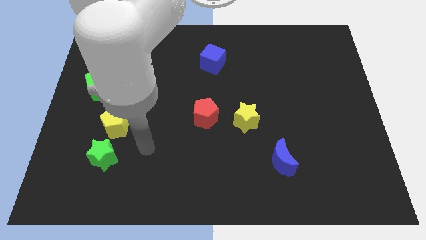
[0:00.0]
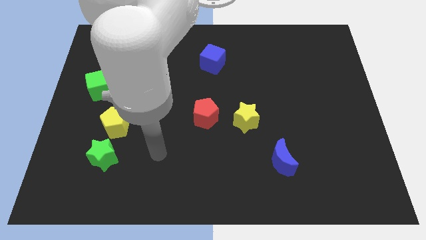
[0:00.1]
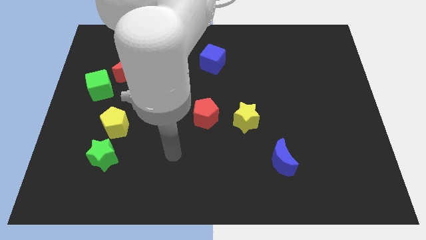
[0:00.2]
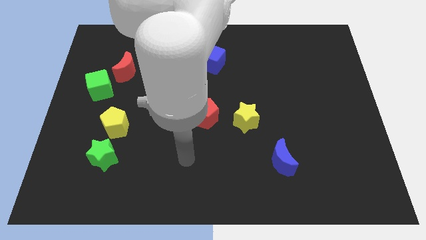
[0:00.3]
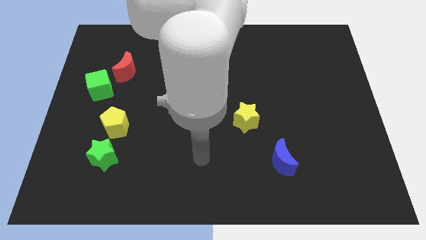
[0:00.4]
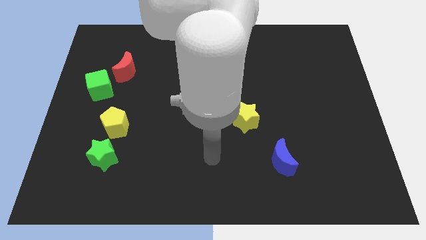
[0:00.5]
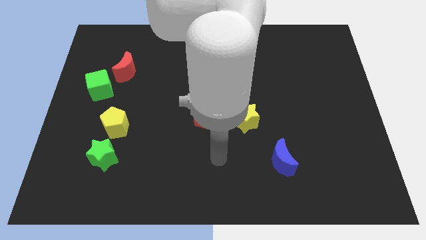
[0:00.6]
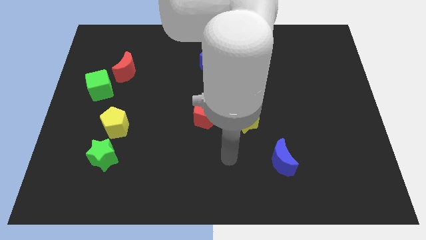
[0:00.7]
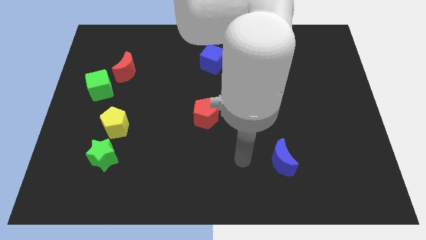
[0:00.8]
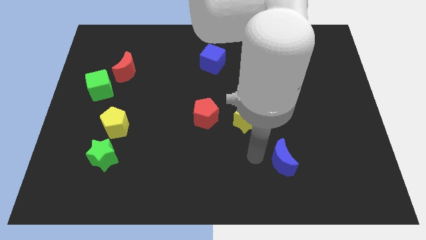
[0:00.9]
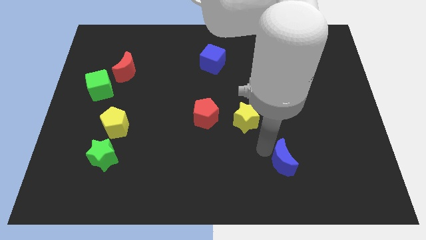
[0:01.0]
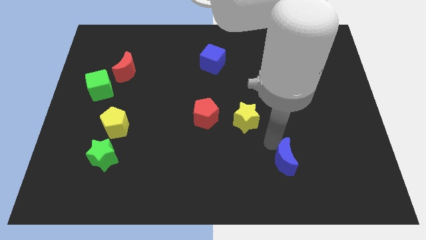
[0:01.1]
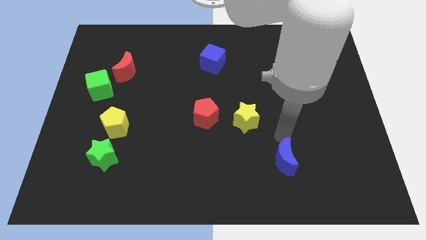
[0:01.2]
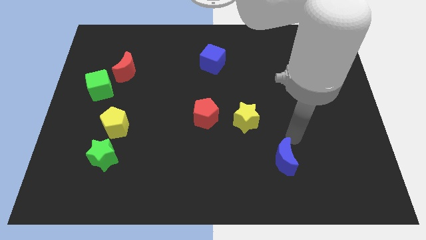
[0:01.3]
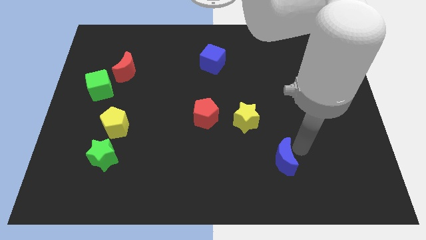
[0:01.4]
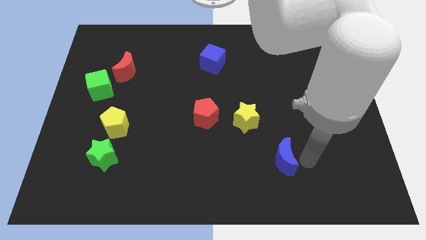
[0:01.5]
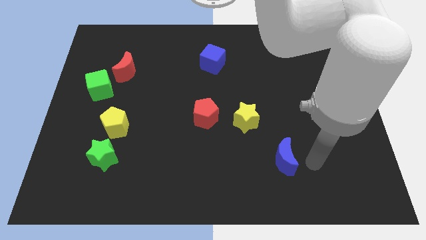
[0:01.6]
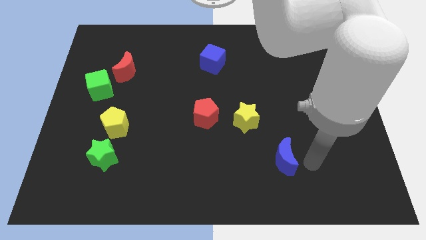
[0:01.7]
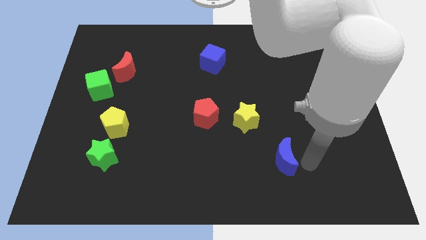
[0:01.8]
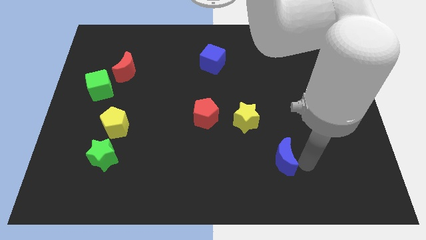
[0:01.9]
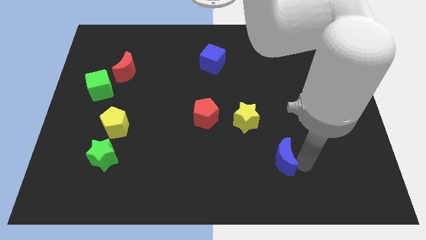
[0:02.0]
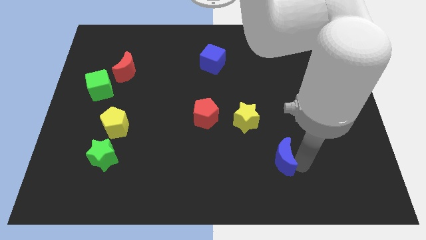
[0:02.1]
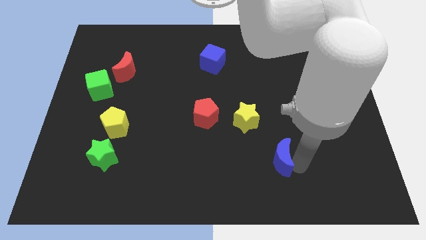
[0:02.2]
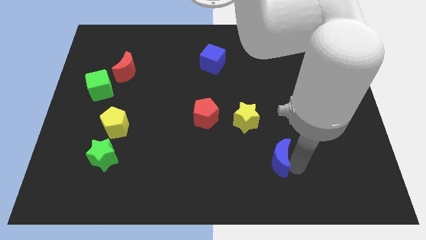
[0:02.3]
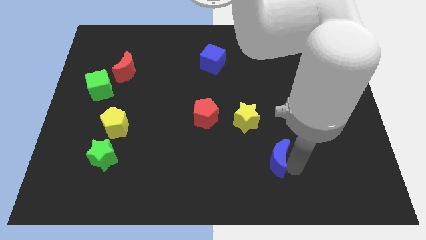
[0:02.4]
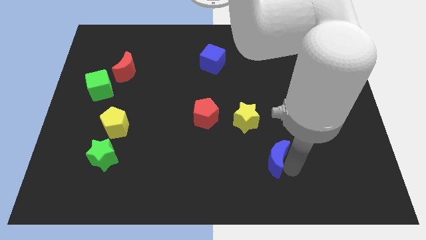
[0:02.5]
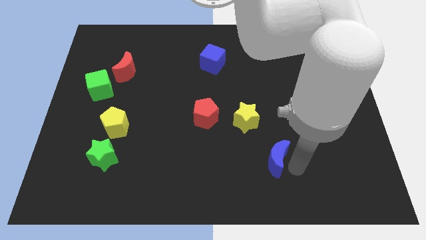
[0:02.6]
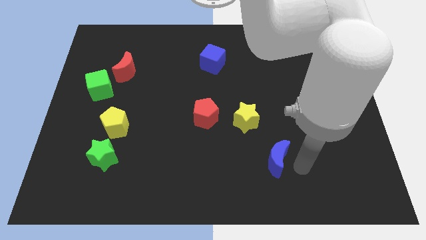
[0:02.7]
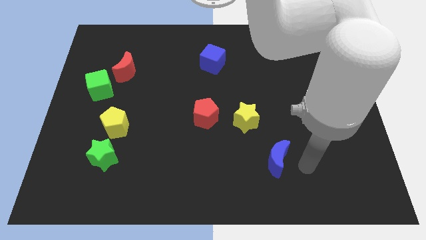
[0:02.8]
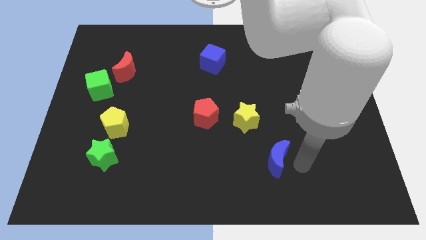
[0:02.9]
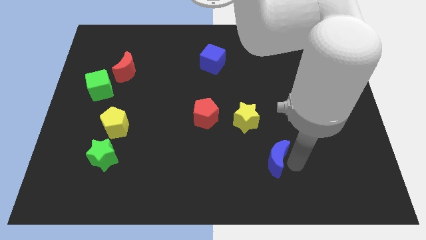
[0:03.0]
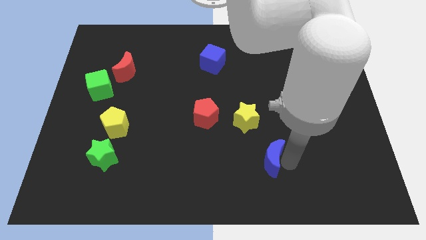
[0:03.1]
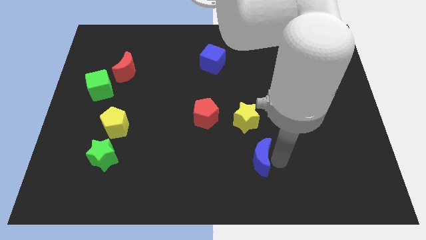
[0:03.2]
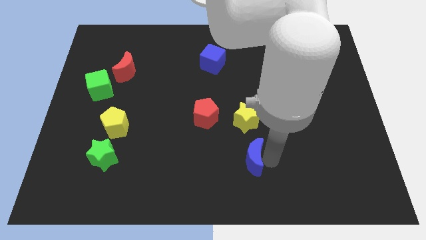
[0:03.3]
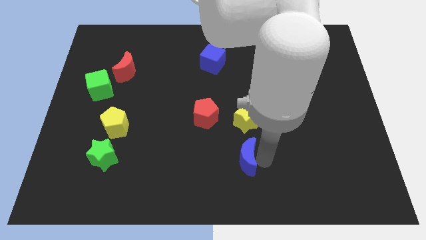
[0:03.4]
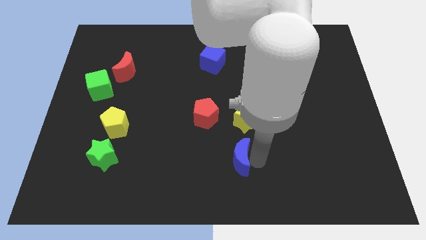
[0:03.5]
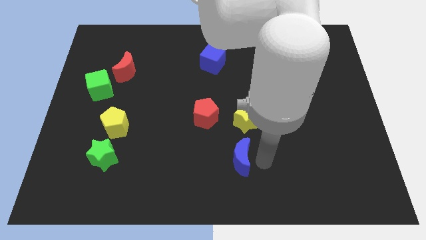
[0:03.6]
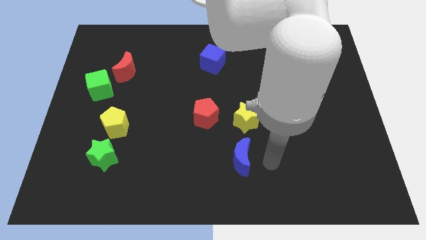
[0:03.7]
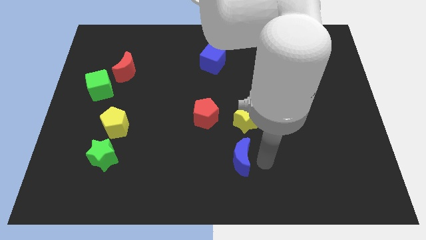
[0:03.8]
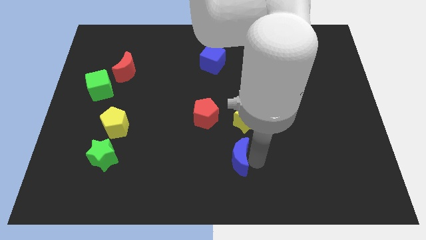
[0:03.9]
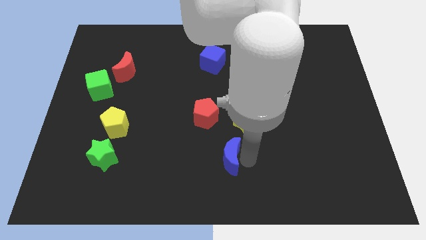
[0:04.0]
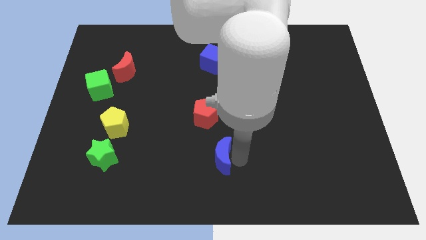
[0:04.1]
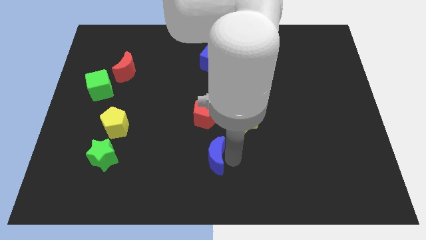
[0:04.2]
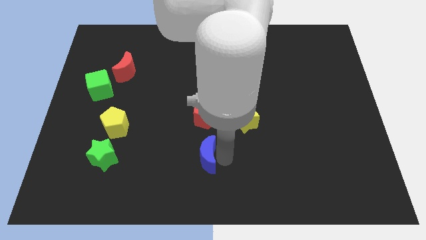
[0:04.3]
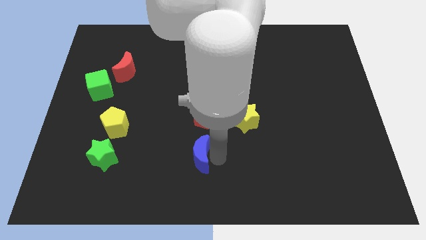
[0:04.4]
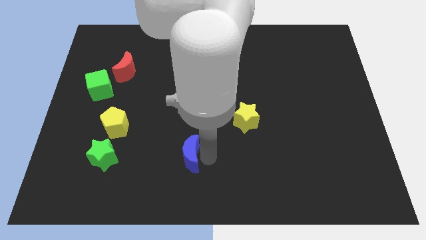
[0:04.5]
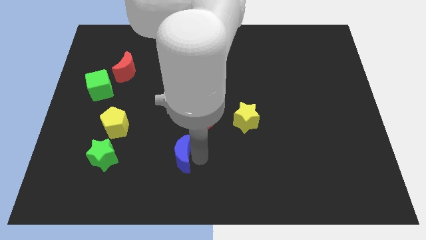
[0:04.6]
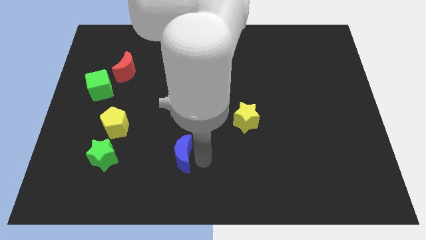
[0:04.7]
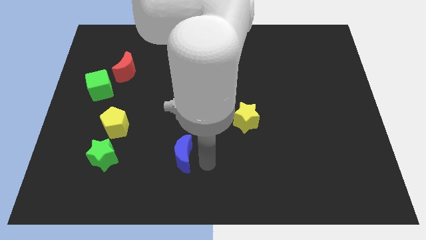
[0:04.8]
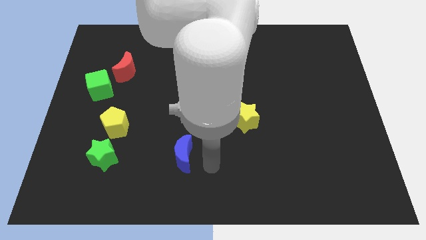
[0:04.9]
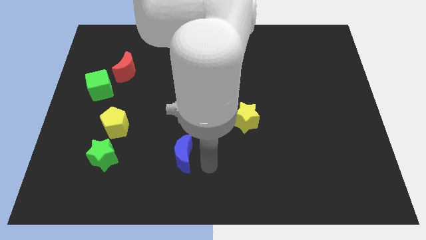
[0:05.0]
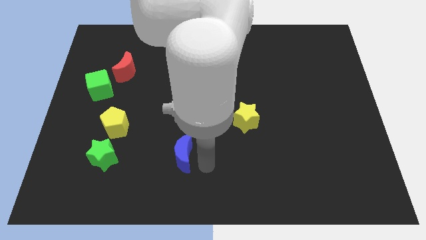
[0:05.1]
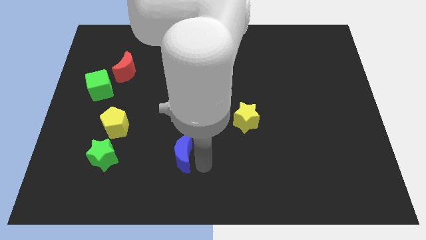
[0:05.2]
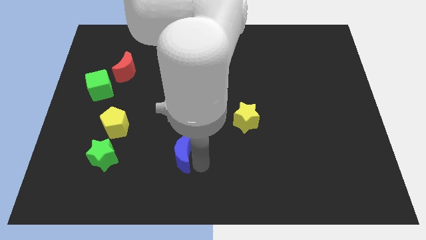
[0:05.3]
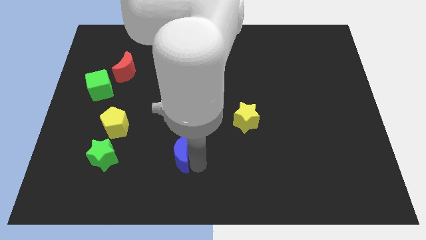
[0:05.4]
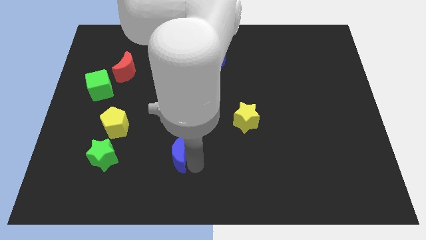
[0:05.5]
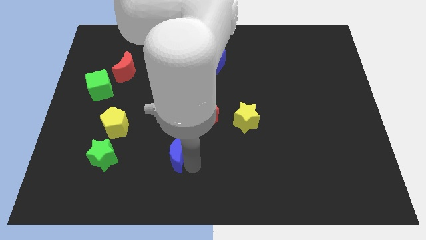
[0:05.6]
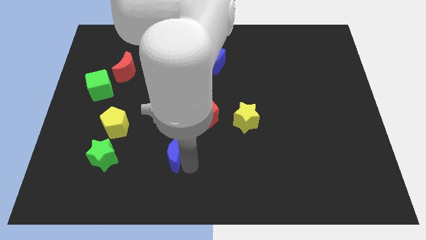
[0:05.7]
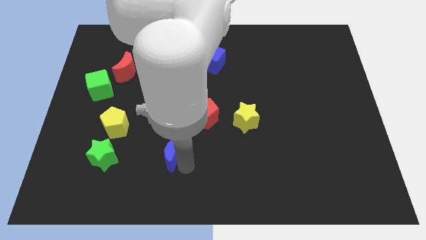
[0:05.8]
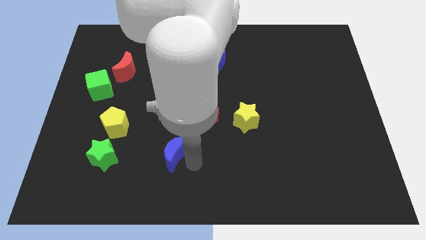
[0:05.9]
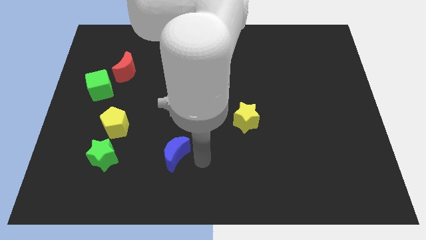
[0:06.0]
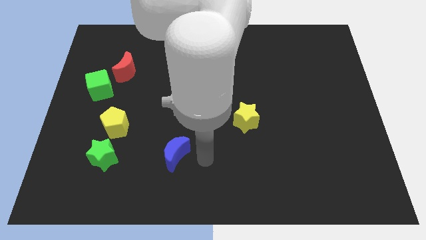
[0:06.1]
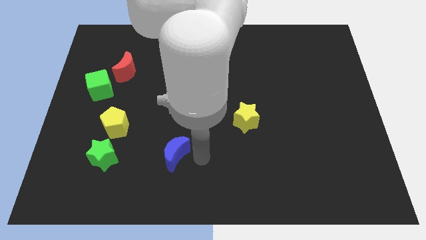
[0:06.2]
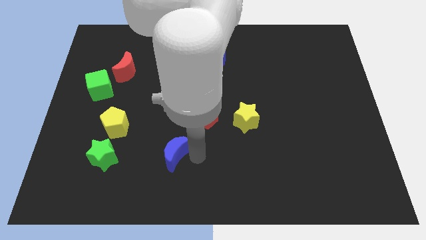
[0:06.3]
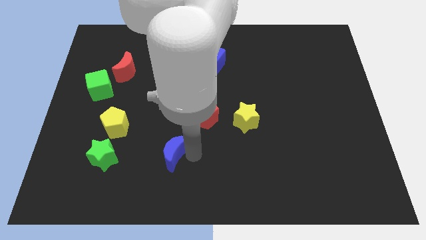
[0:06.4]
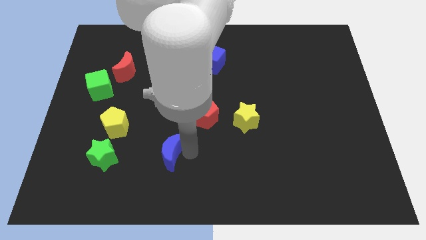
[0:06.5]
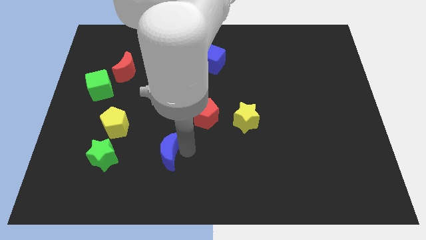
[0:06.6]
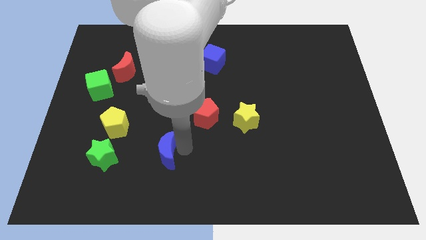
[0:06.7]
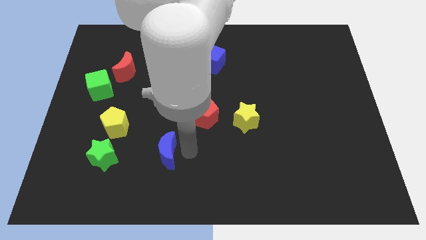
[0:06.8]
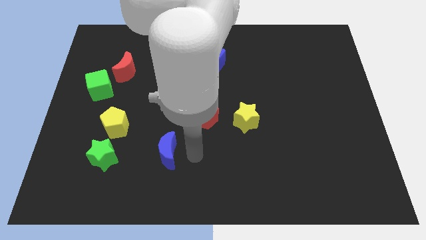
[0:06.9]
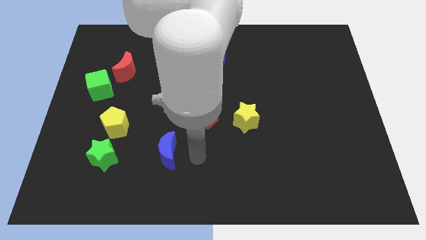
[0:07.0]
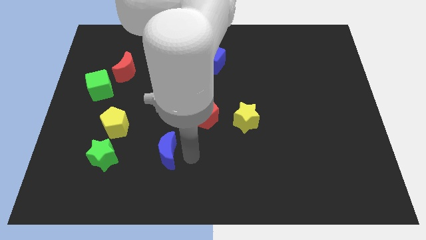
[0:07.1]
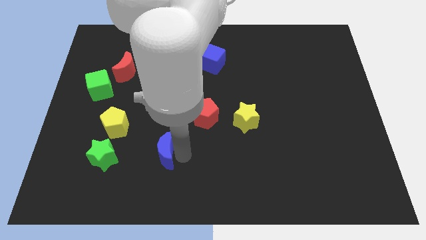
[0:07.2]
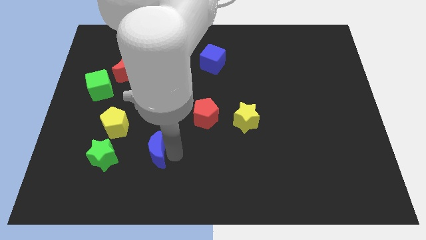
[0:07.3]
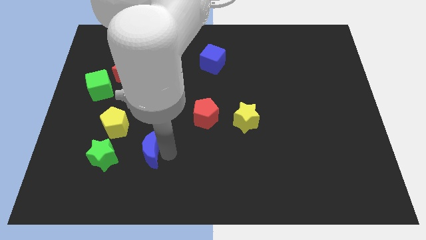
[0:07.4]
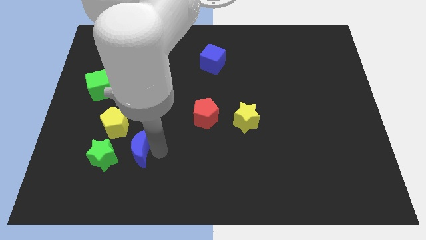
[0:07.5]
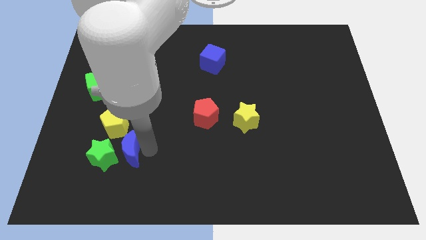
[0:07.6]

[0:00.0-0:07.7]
push the blue moon to the green star

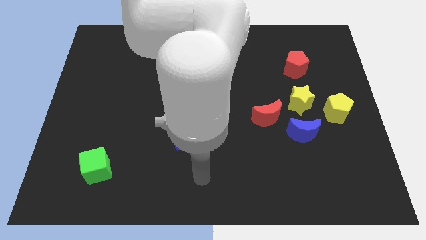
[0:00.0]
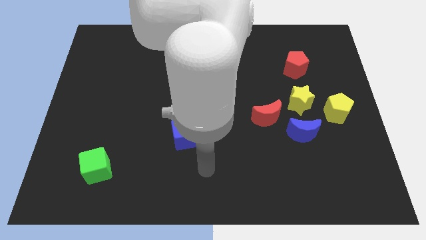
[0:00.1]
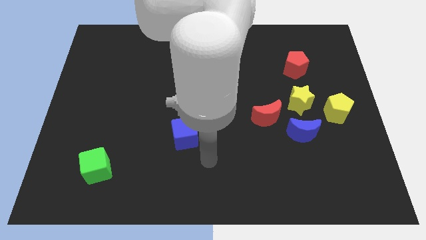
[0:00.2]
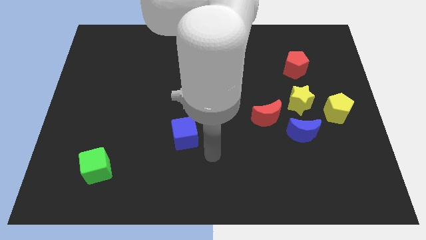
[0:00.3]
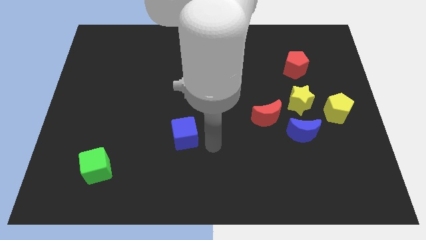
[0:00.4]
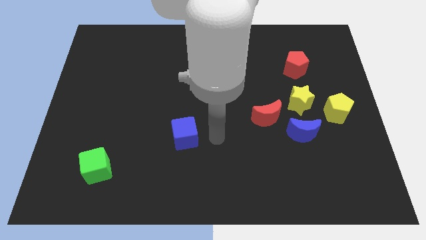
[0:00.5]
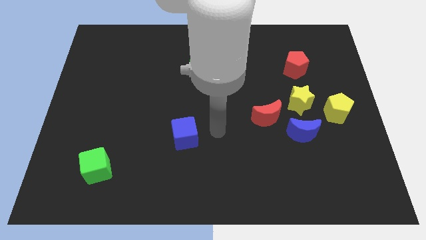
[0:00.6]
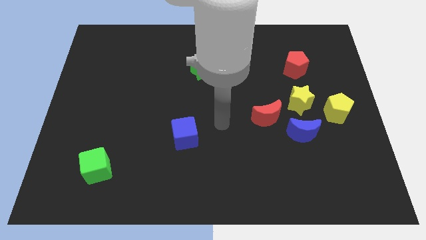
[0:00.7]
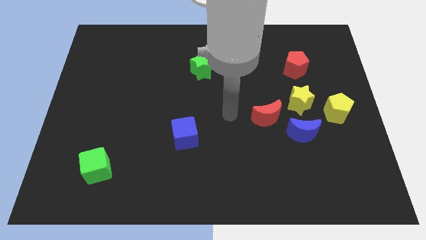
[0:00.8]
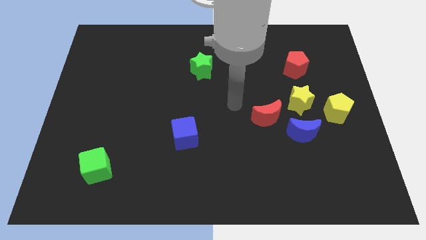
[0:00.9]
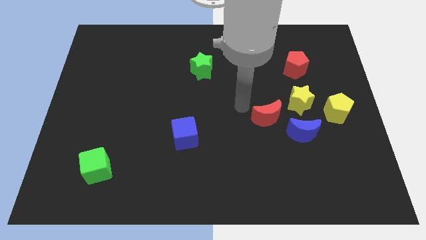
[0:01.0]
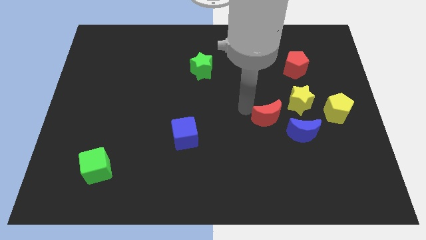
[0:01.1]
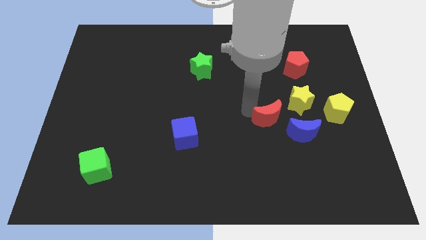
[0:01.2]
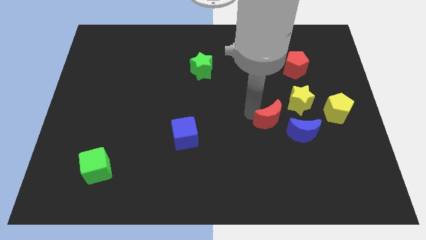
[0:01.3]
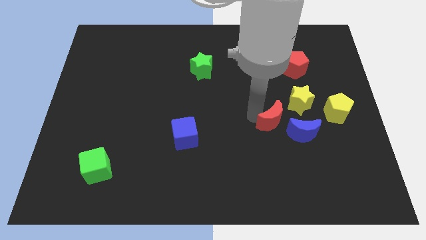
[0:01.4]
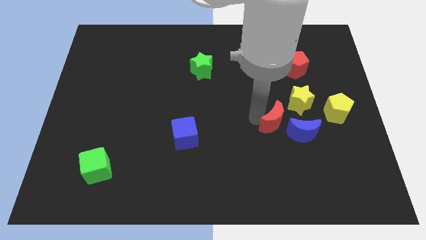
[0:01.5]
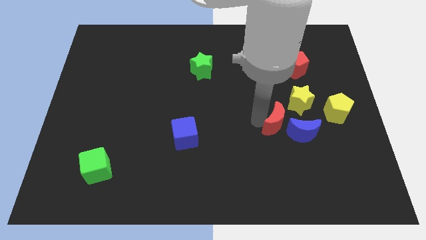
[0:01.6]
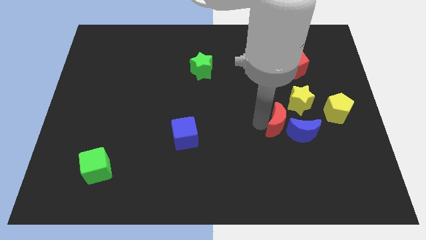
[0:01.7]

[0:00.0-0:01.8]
put the red moon next to the blue moon
